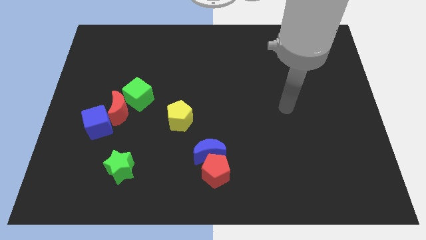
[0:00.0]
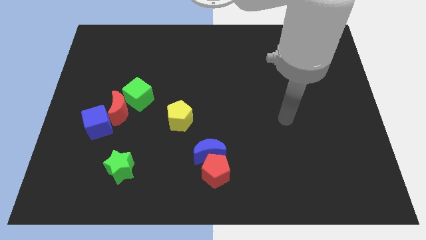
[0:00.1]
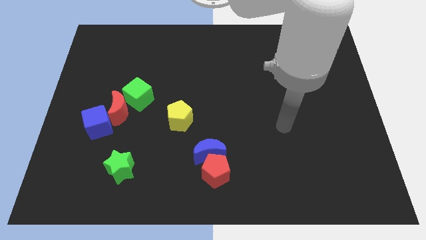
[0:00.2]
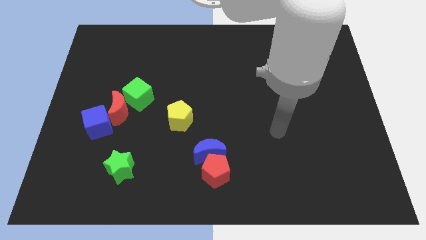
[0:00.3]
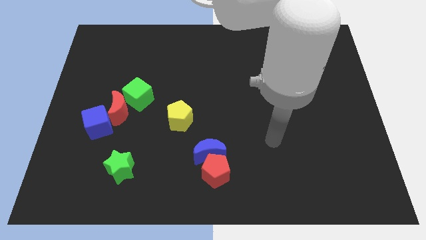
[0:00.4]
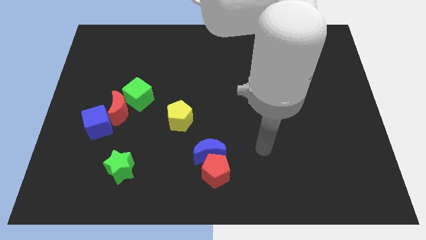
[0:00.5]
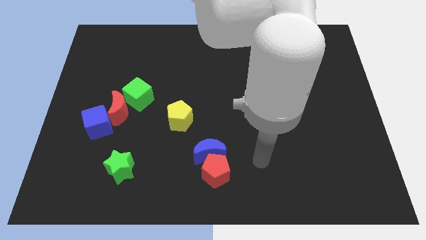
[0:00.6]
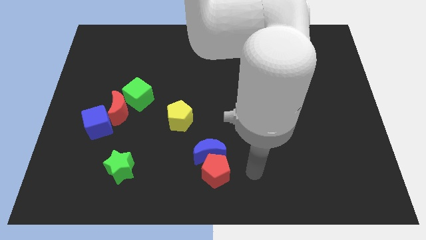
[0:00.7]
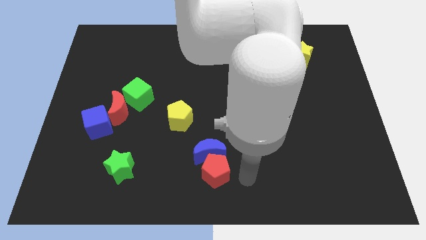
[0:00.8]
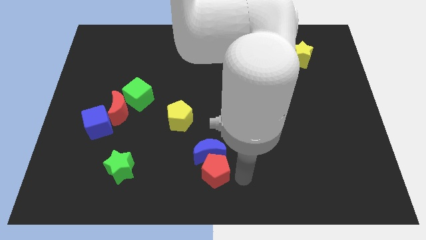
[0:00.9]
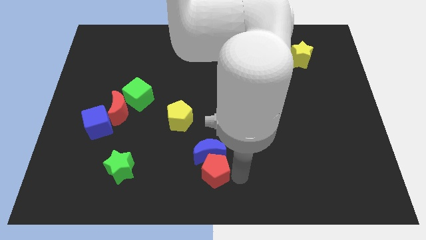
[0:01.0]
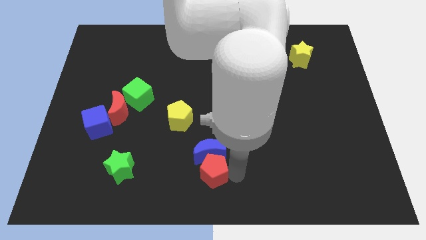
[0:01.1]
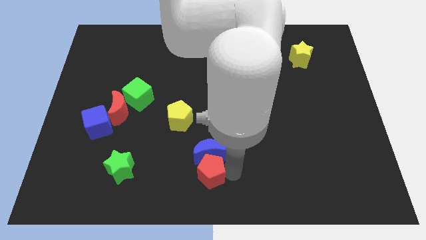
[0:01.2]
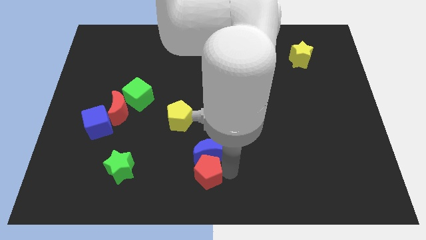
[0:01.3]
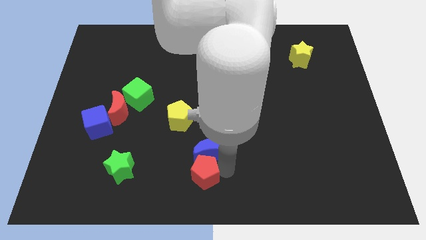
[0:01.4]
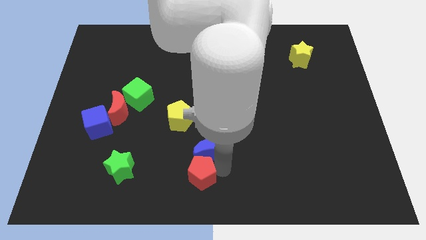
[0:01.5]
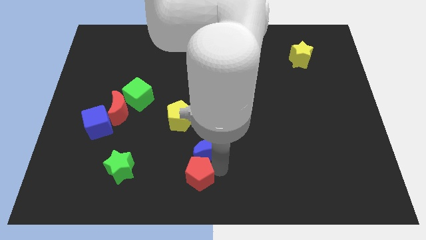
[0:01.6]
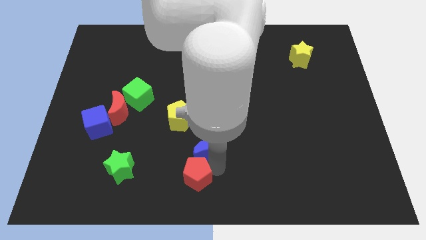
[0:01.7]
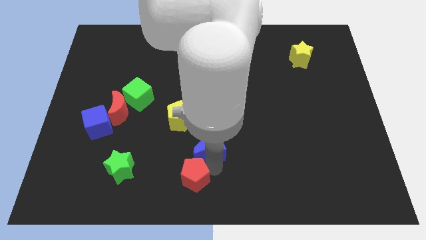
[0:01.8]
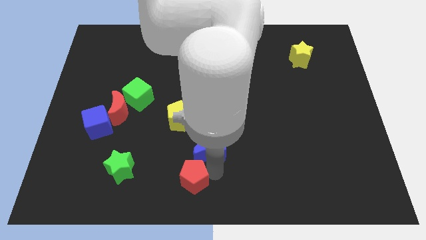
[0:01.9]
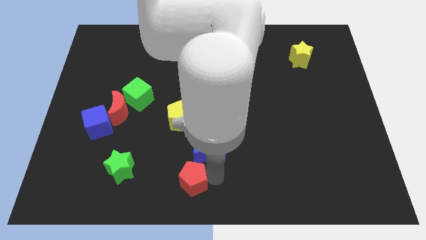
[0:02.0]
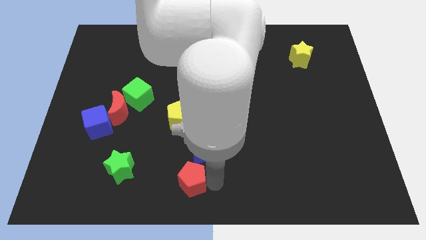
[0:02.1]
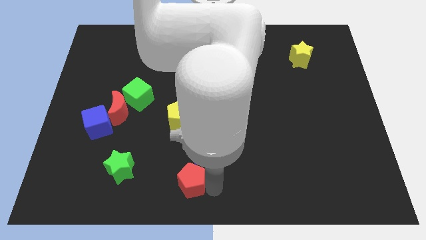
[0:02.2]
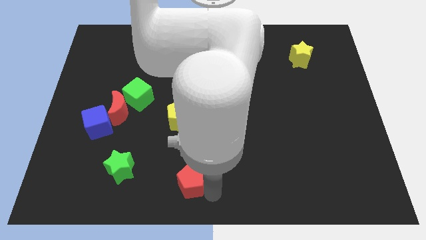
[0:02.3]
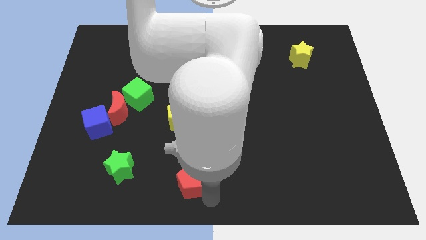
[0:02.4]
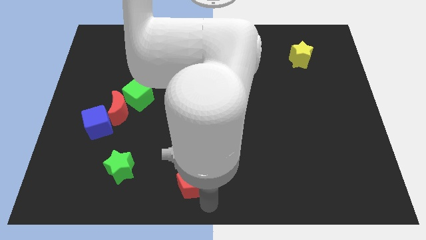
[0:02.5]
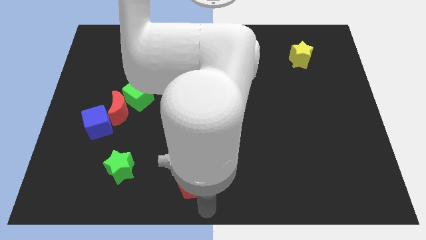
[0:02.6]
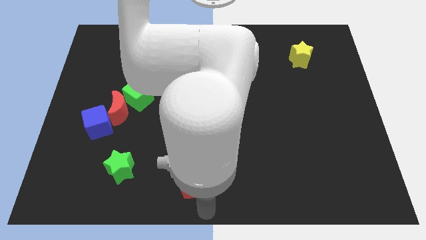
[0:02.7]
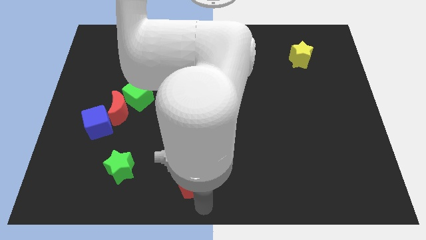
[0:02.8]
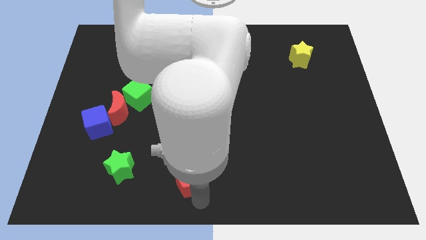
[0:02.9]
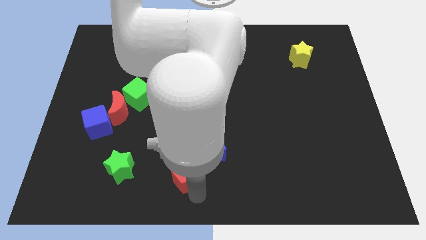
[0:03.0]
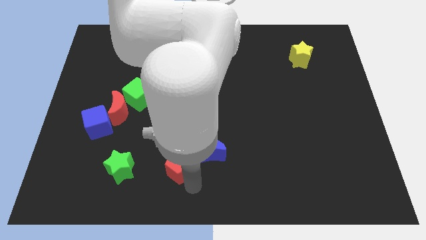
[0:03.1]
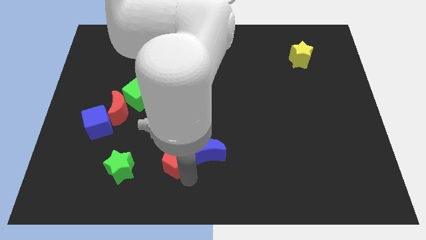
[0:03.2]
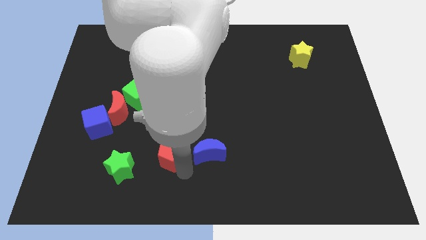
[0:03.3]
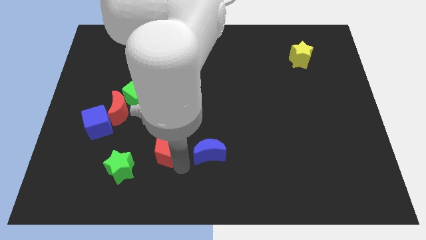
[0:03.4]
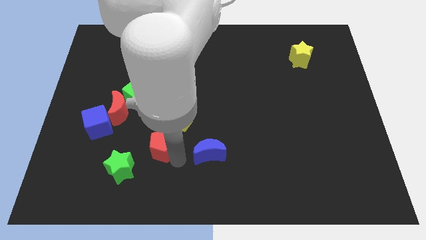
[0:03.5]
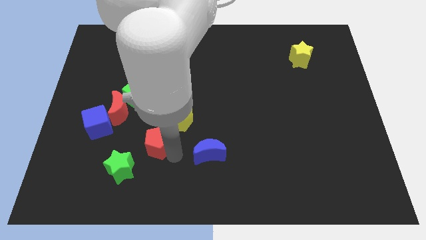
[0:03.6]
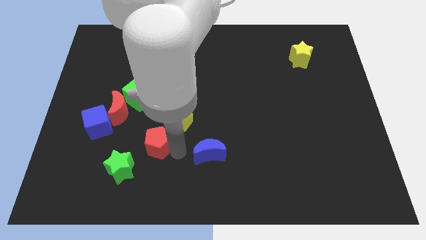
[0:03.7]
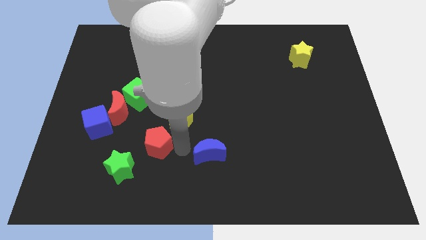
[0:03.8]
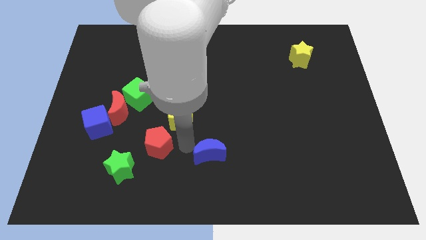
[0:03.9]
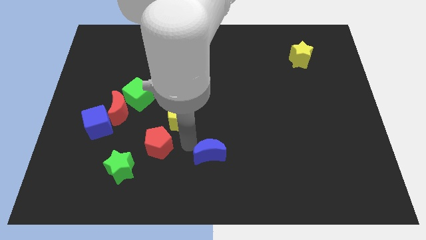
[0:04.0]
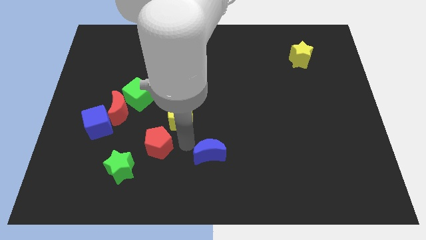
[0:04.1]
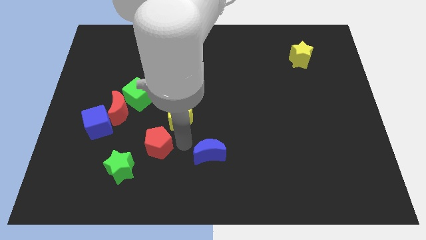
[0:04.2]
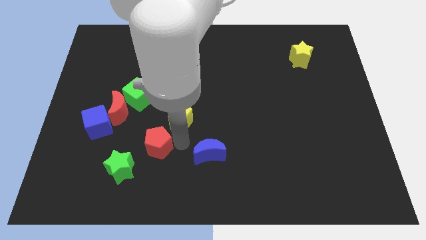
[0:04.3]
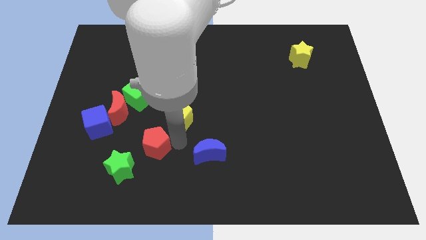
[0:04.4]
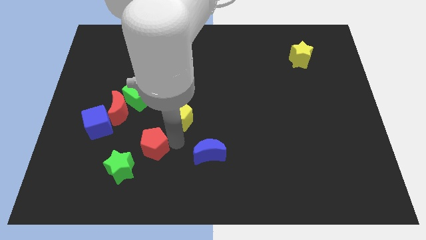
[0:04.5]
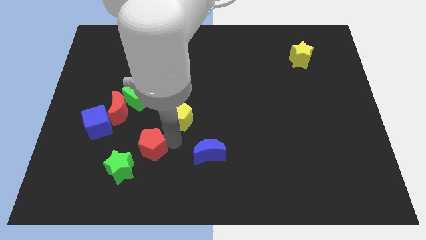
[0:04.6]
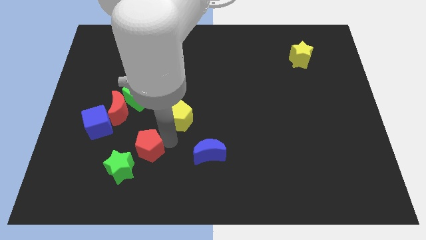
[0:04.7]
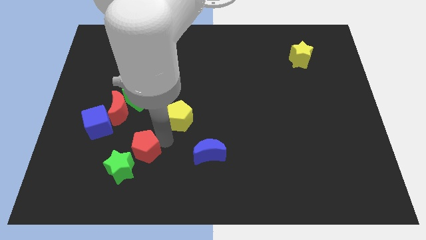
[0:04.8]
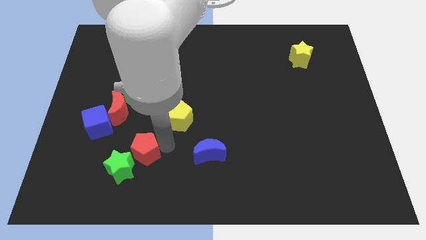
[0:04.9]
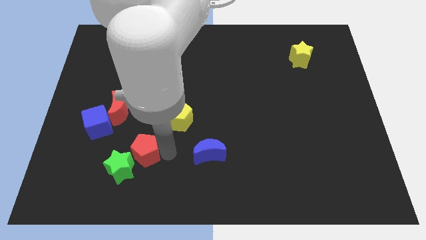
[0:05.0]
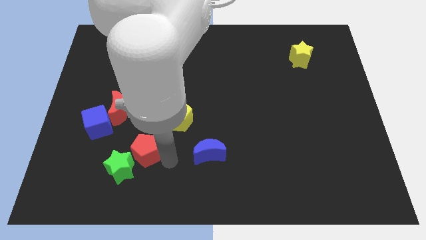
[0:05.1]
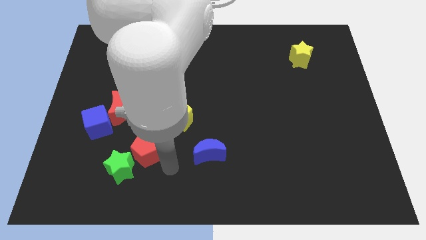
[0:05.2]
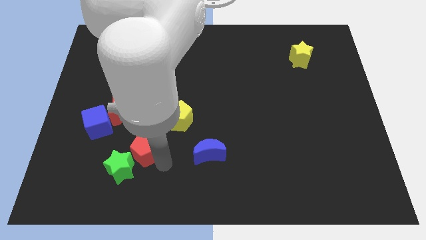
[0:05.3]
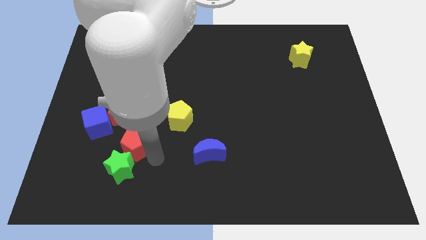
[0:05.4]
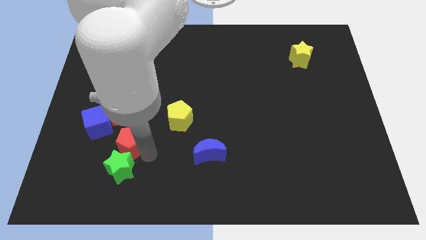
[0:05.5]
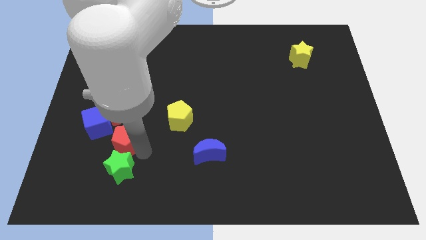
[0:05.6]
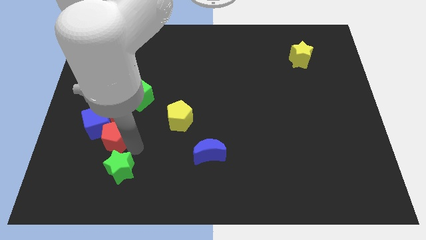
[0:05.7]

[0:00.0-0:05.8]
slide the red pentagon towards the blue cube

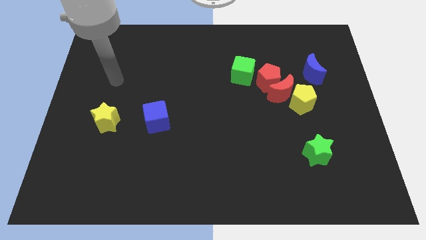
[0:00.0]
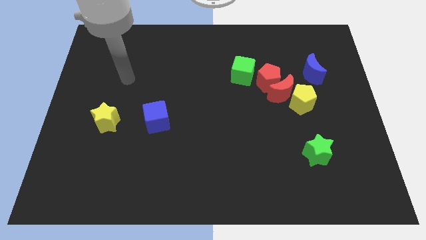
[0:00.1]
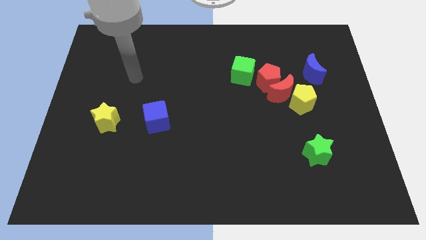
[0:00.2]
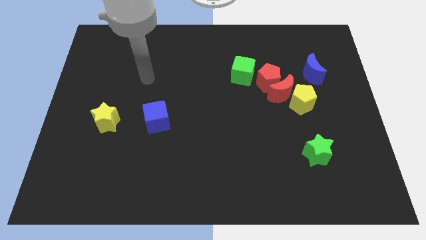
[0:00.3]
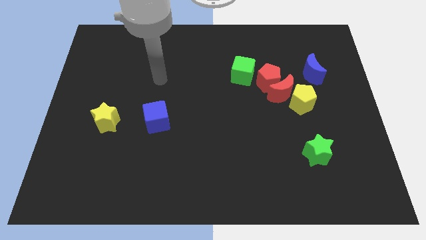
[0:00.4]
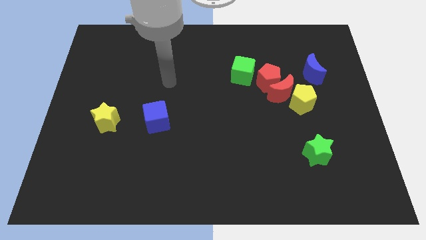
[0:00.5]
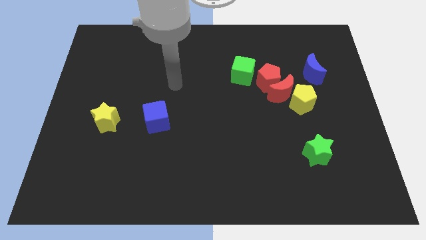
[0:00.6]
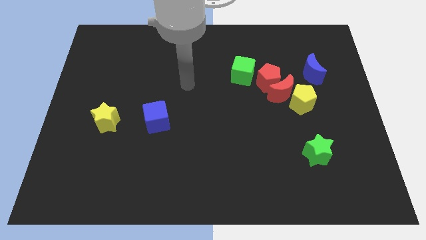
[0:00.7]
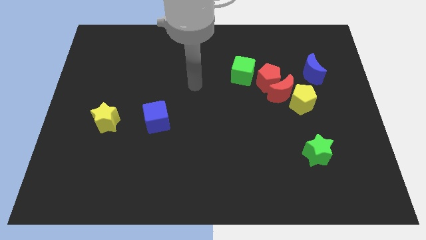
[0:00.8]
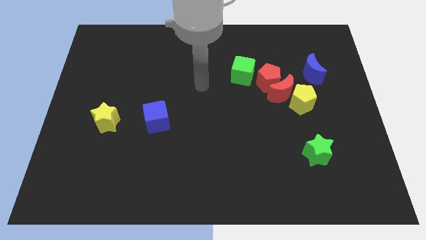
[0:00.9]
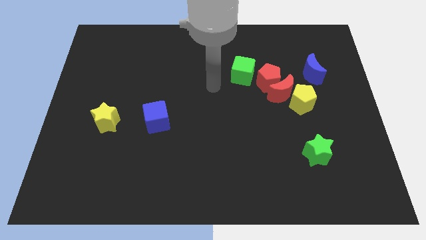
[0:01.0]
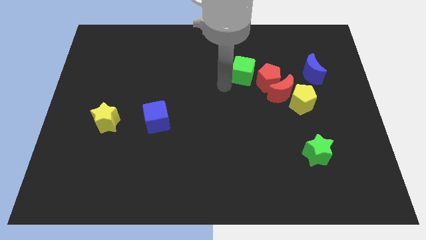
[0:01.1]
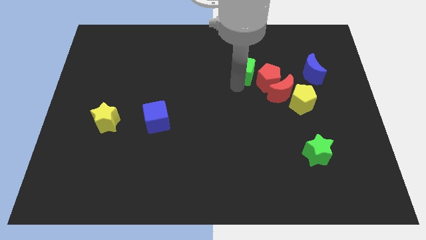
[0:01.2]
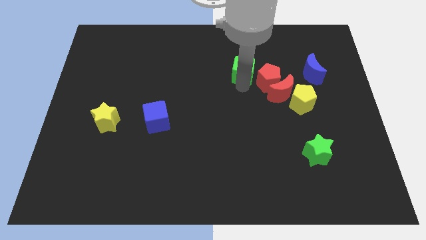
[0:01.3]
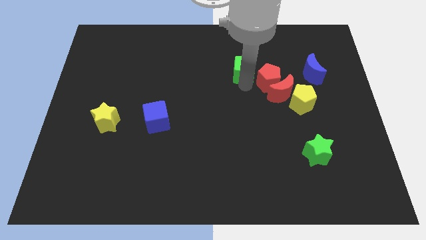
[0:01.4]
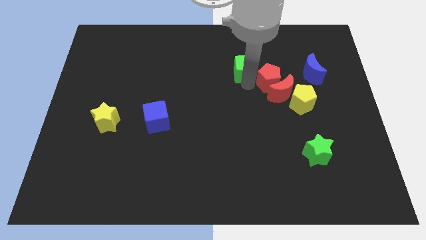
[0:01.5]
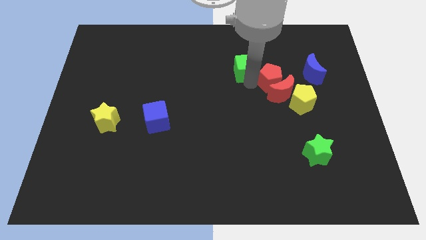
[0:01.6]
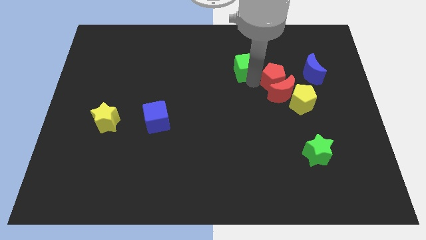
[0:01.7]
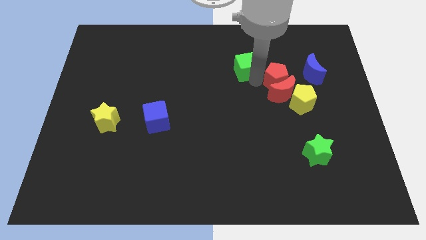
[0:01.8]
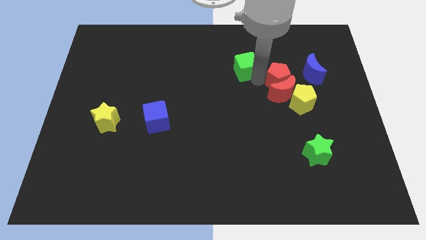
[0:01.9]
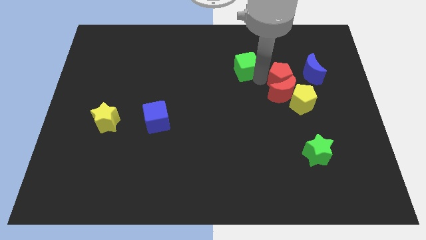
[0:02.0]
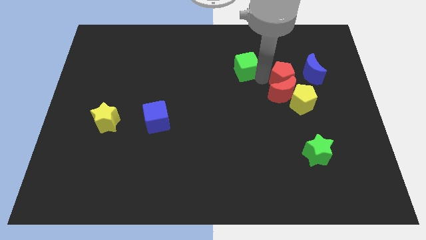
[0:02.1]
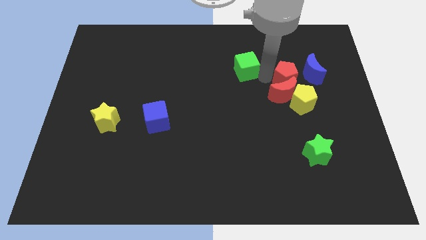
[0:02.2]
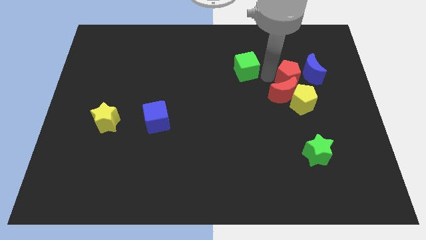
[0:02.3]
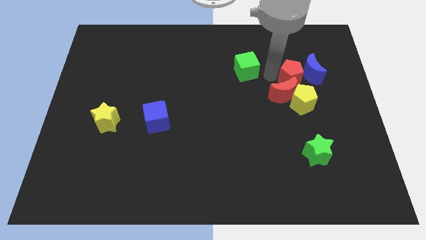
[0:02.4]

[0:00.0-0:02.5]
slide the red pentagon close to the blue moon
